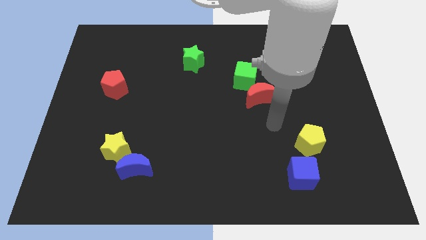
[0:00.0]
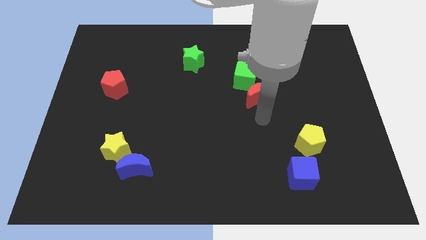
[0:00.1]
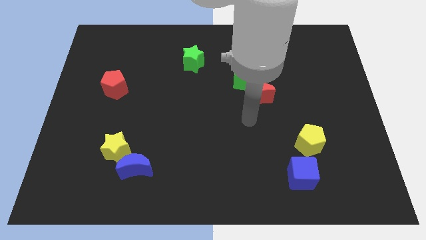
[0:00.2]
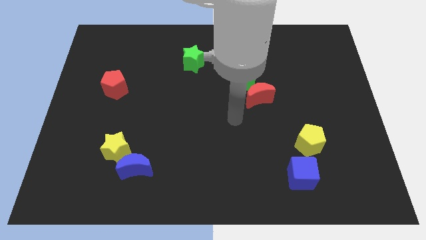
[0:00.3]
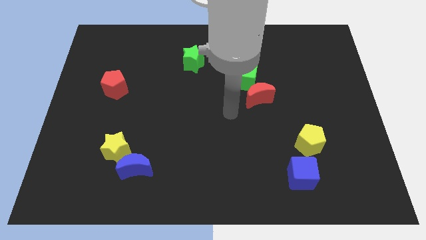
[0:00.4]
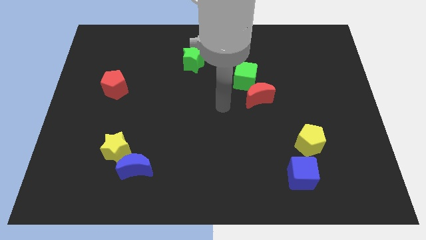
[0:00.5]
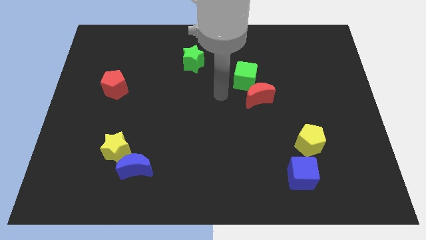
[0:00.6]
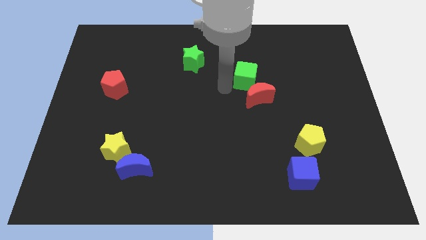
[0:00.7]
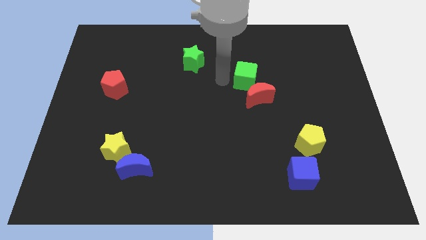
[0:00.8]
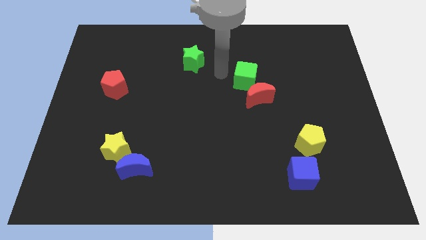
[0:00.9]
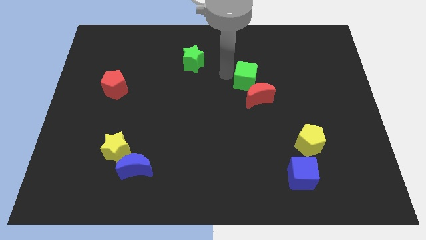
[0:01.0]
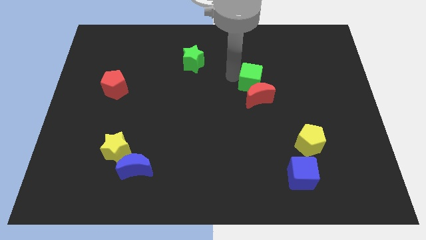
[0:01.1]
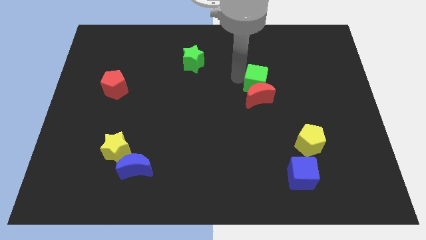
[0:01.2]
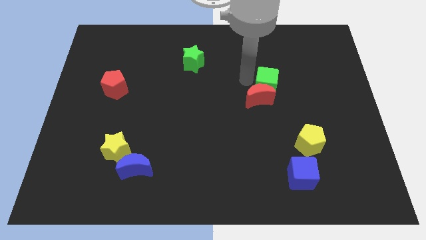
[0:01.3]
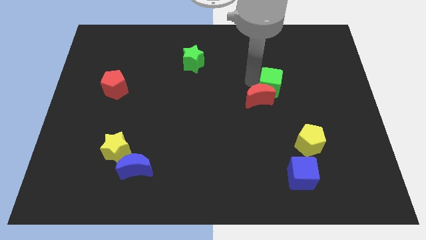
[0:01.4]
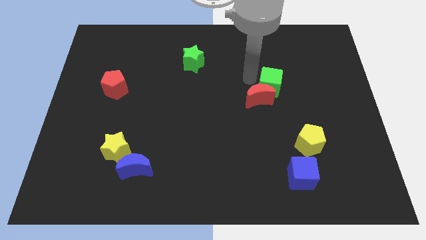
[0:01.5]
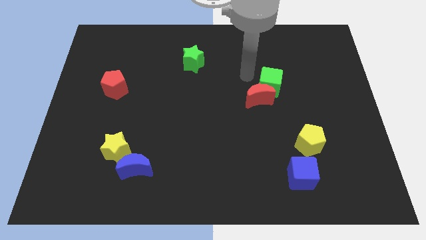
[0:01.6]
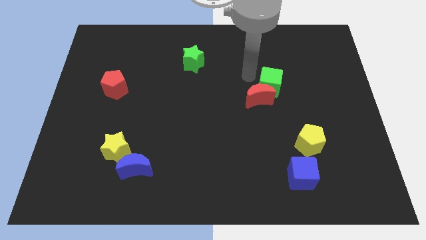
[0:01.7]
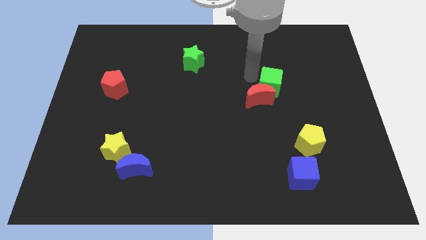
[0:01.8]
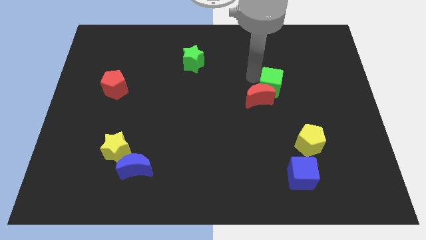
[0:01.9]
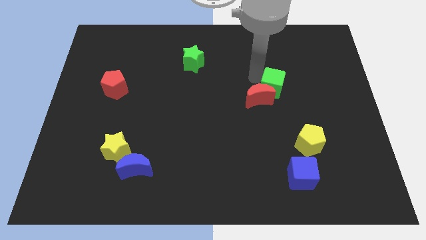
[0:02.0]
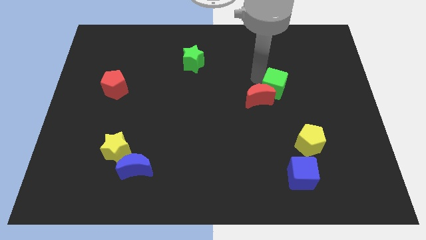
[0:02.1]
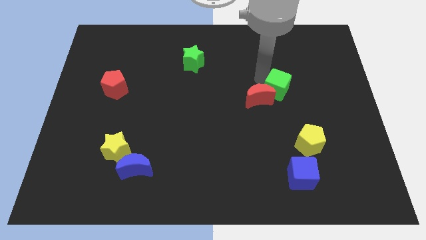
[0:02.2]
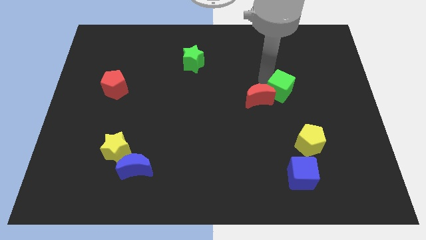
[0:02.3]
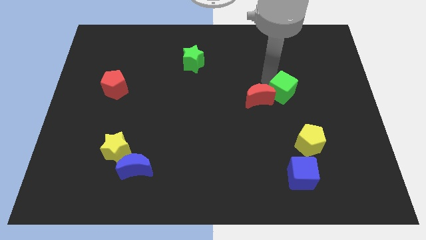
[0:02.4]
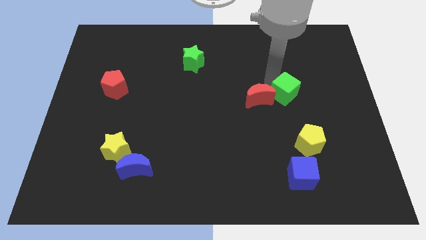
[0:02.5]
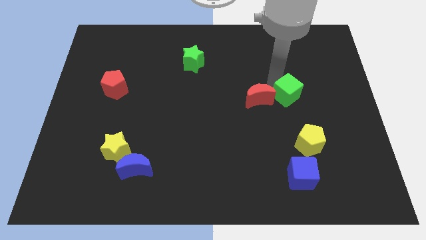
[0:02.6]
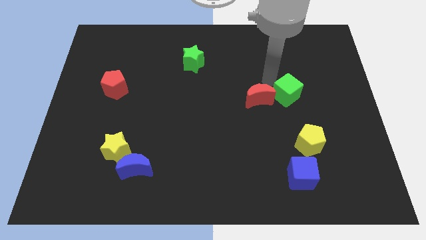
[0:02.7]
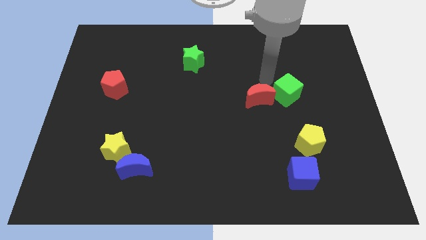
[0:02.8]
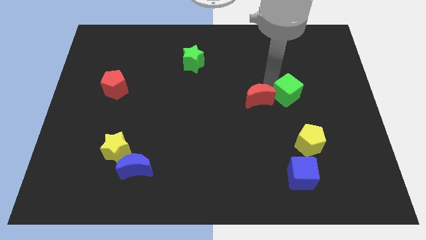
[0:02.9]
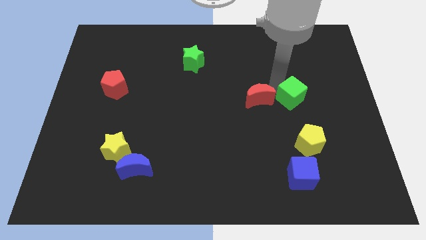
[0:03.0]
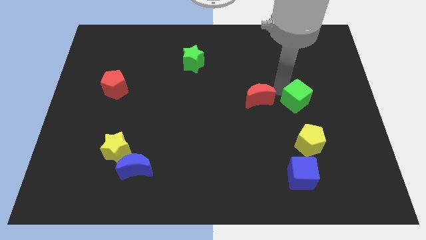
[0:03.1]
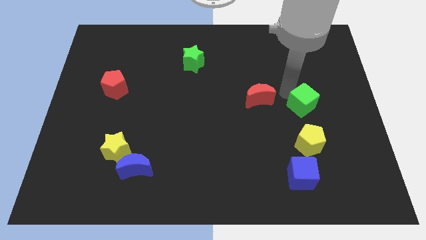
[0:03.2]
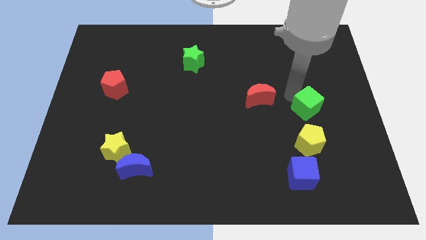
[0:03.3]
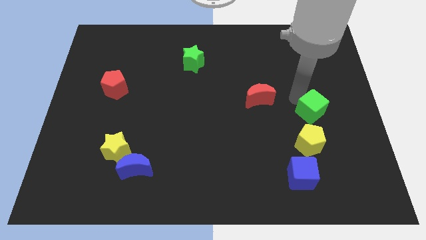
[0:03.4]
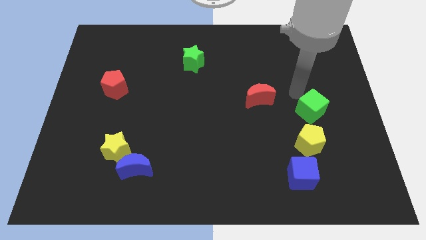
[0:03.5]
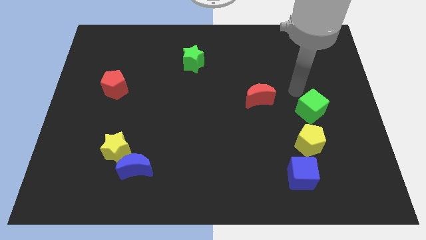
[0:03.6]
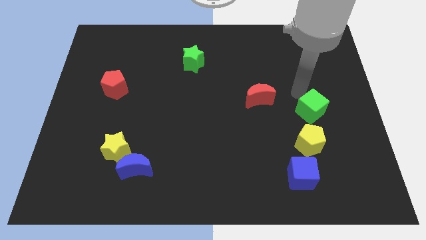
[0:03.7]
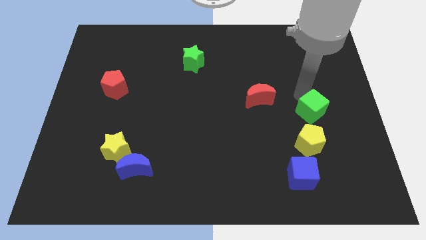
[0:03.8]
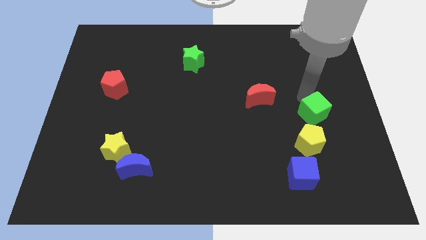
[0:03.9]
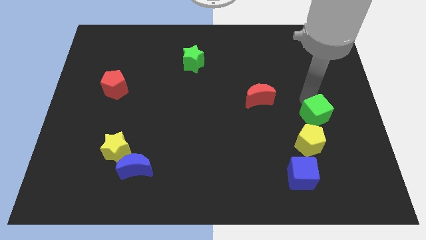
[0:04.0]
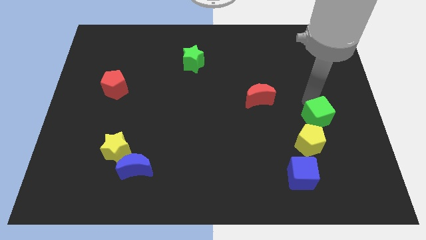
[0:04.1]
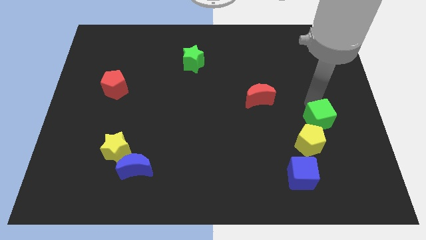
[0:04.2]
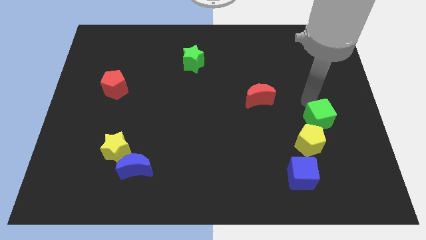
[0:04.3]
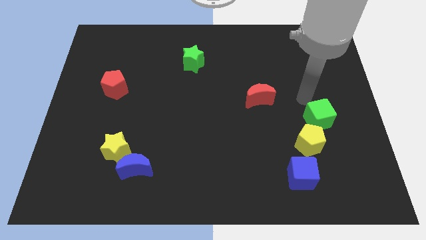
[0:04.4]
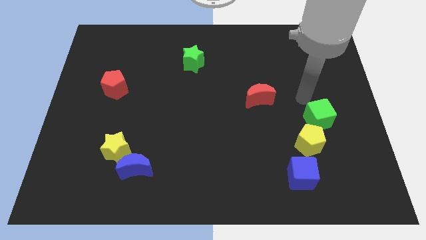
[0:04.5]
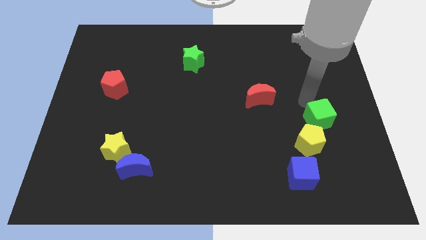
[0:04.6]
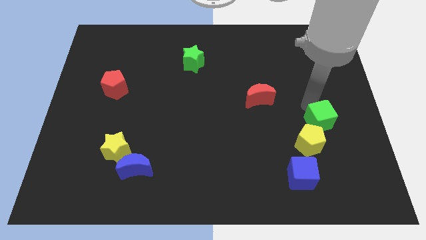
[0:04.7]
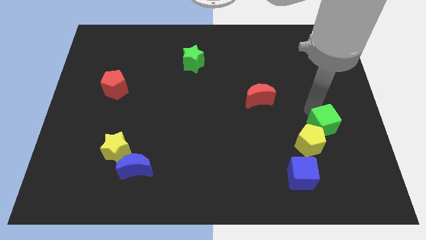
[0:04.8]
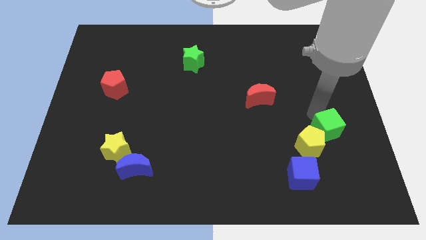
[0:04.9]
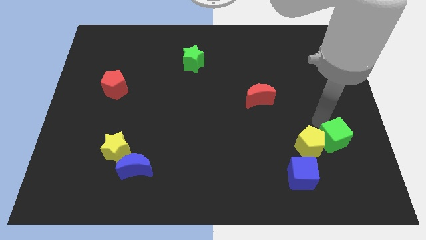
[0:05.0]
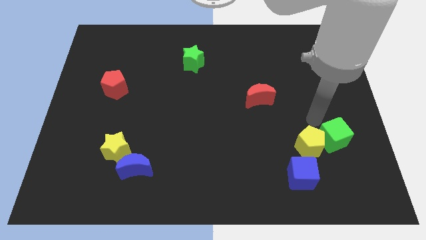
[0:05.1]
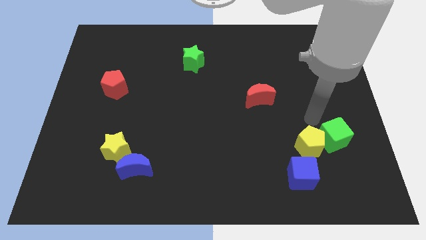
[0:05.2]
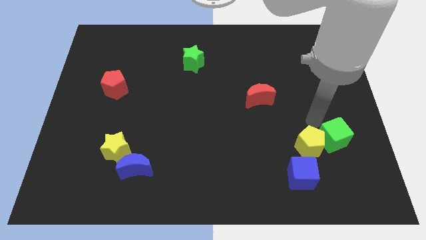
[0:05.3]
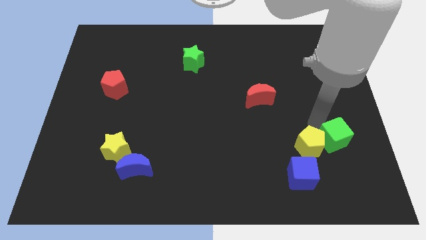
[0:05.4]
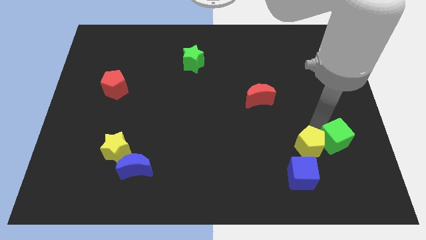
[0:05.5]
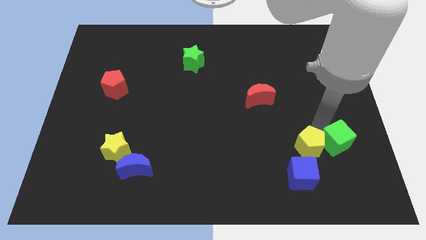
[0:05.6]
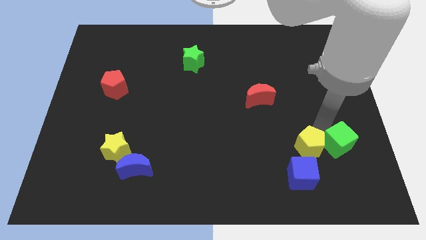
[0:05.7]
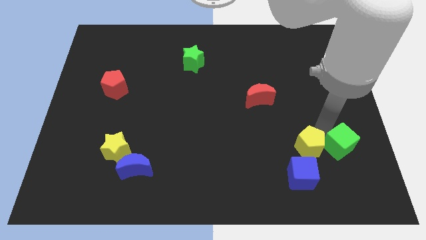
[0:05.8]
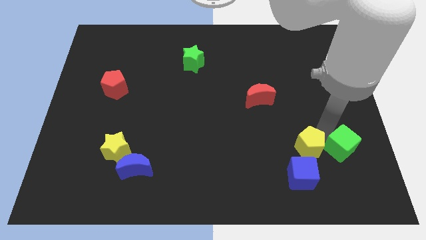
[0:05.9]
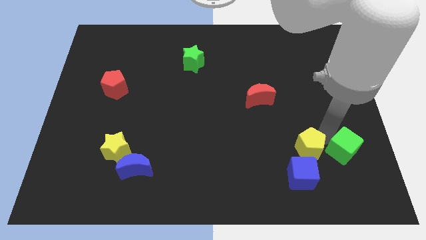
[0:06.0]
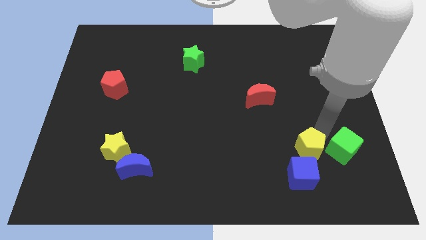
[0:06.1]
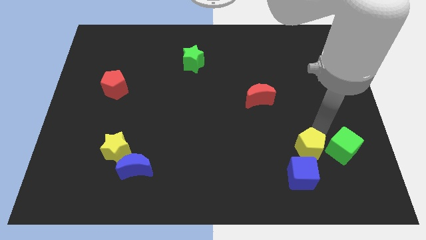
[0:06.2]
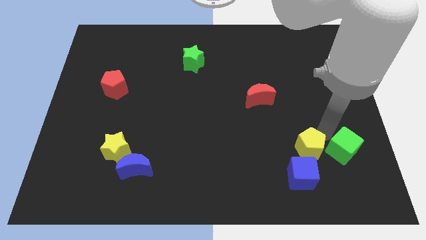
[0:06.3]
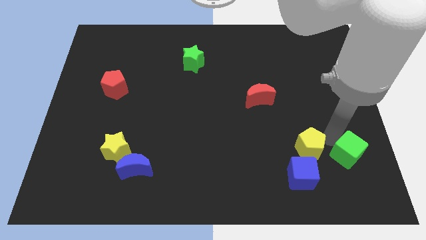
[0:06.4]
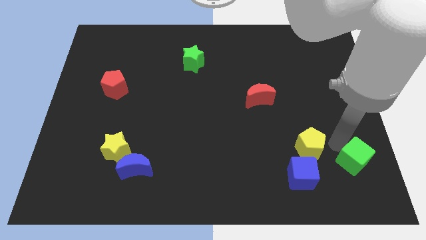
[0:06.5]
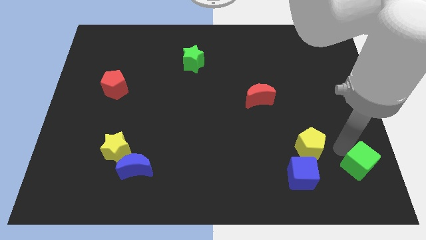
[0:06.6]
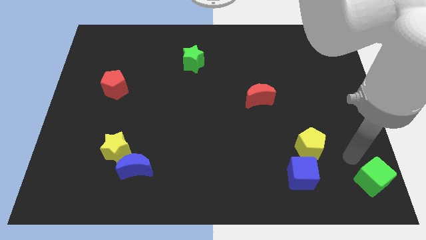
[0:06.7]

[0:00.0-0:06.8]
put the green cube to the lower right corner
